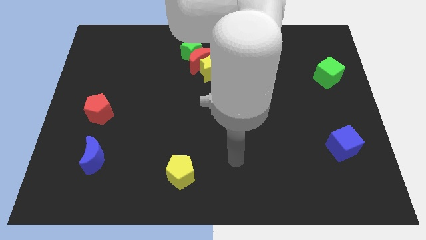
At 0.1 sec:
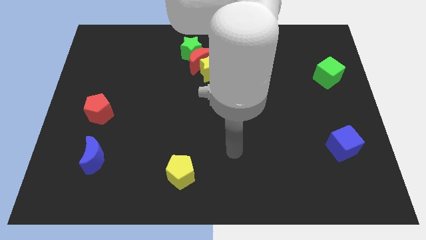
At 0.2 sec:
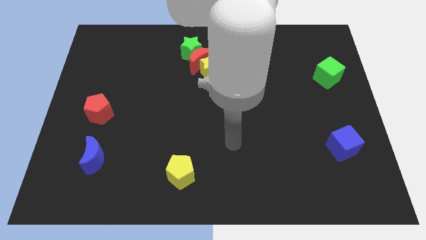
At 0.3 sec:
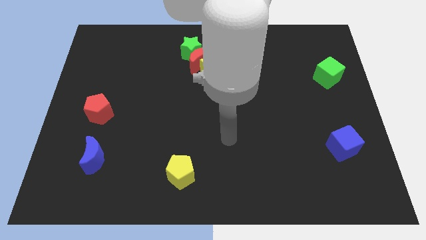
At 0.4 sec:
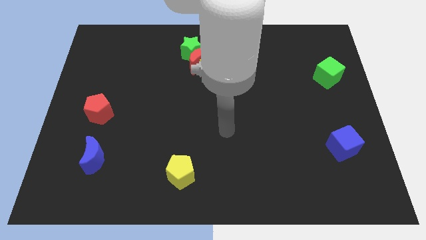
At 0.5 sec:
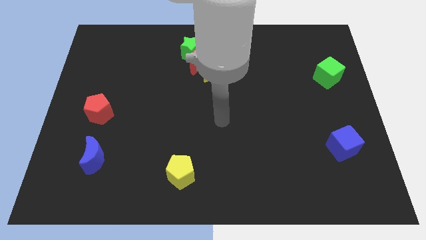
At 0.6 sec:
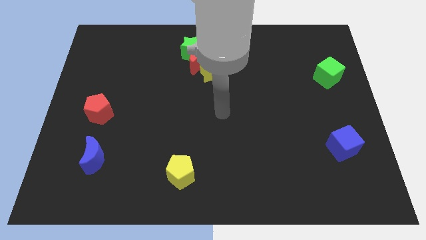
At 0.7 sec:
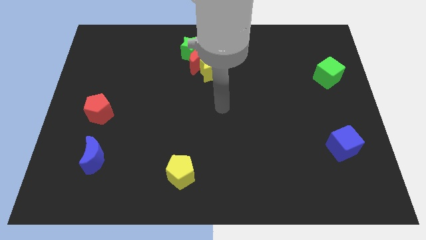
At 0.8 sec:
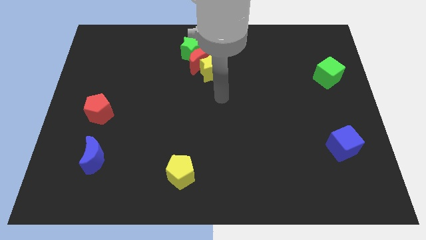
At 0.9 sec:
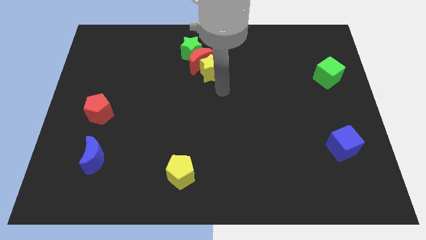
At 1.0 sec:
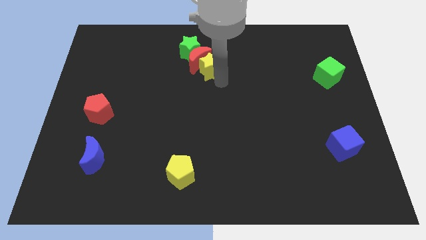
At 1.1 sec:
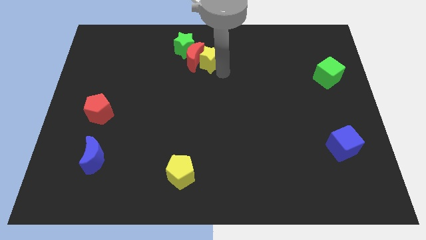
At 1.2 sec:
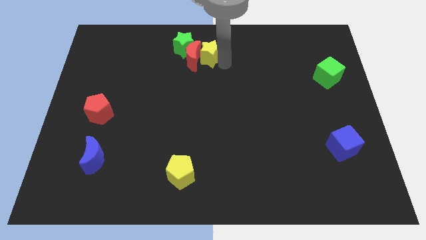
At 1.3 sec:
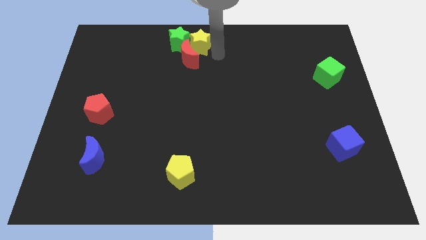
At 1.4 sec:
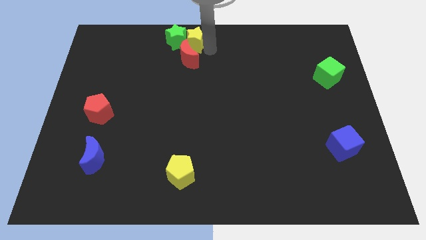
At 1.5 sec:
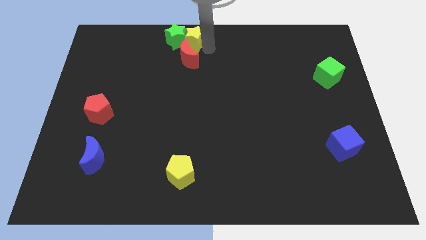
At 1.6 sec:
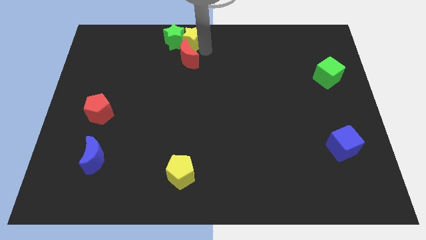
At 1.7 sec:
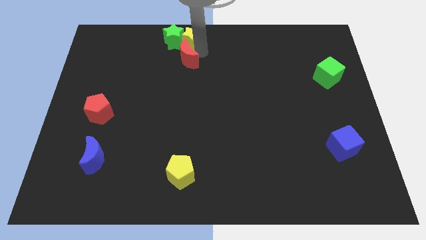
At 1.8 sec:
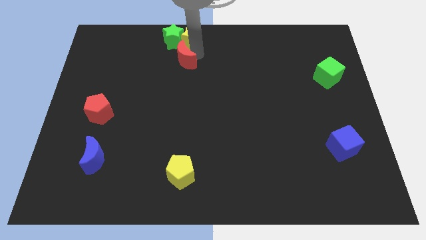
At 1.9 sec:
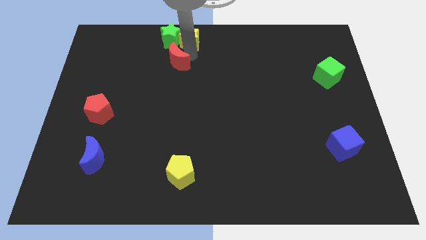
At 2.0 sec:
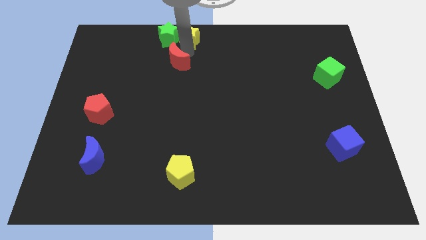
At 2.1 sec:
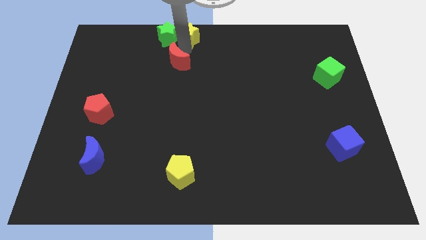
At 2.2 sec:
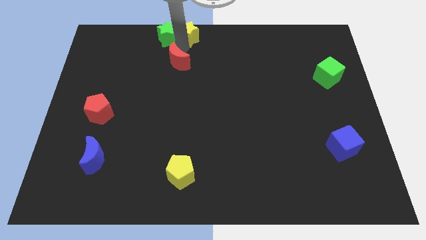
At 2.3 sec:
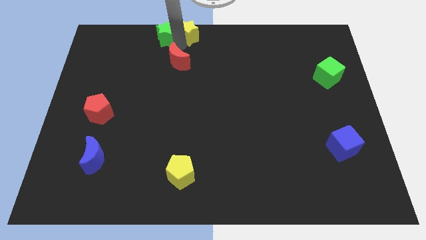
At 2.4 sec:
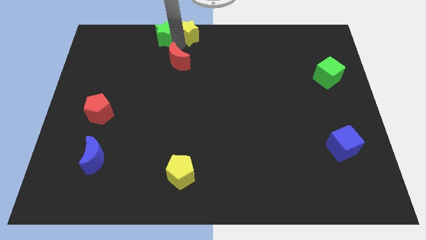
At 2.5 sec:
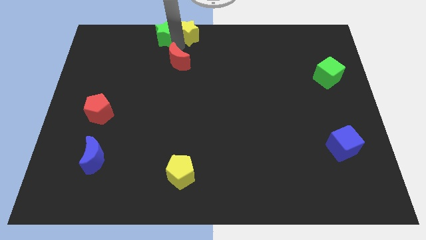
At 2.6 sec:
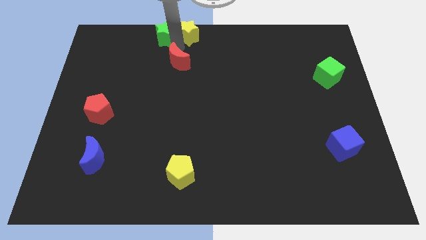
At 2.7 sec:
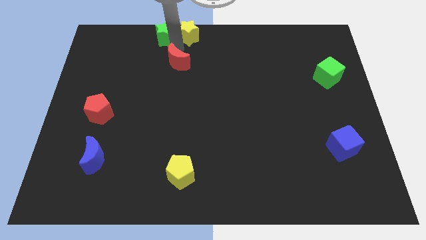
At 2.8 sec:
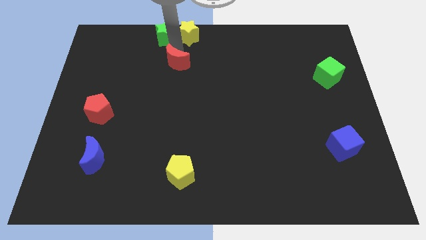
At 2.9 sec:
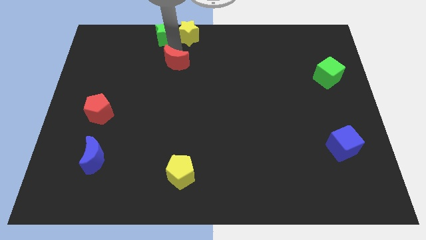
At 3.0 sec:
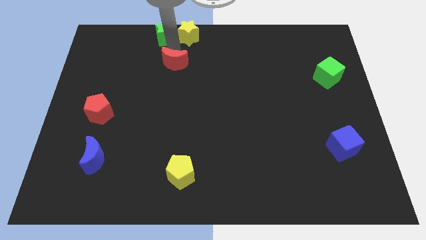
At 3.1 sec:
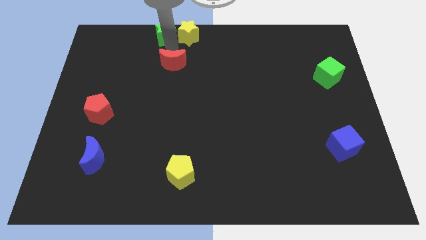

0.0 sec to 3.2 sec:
pull the red moon apart from the green star and yellow star

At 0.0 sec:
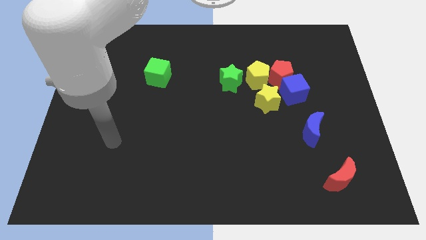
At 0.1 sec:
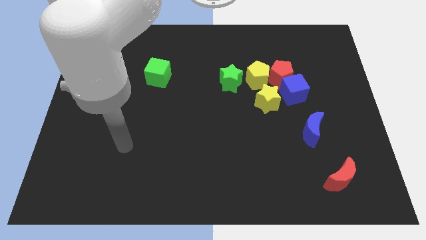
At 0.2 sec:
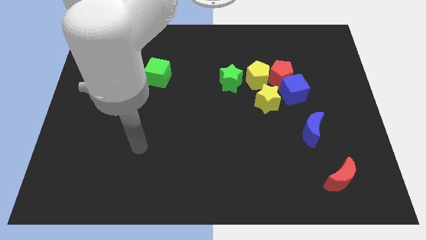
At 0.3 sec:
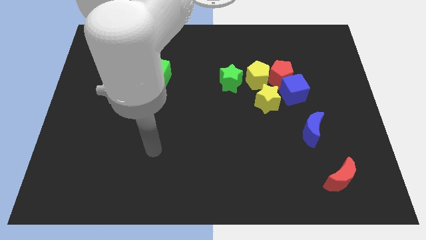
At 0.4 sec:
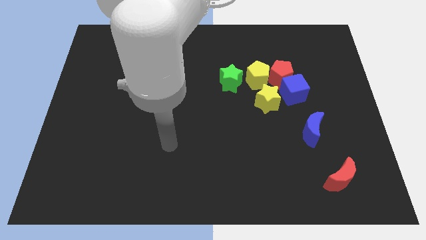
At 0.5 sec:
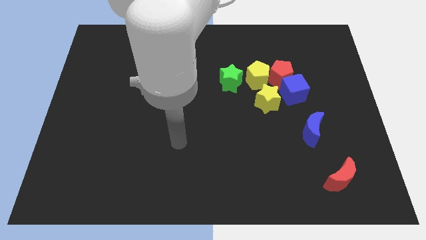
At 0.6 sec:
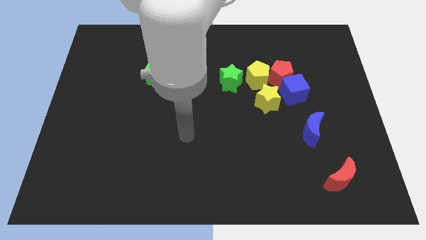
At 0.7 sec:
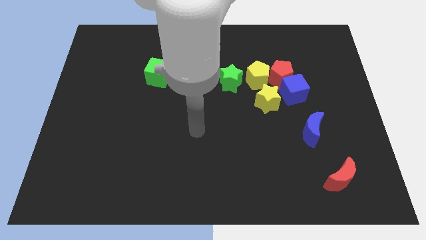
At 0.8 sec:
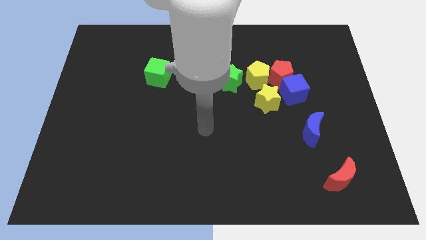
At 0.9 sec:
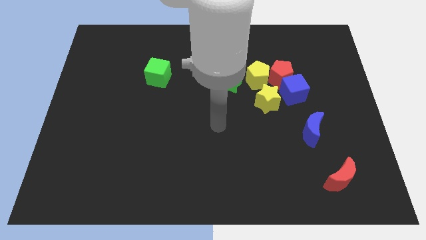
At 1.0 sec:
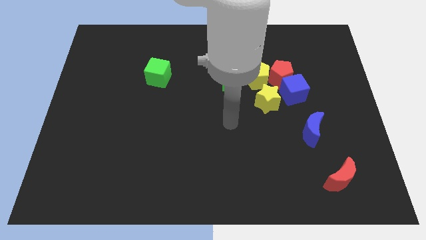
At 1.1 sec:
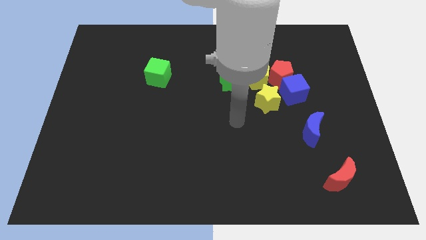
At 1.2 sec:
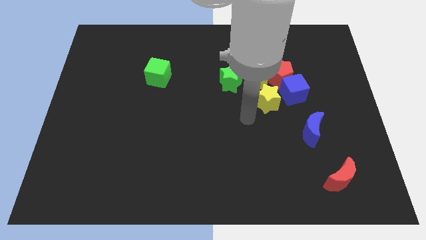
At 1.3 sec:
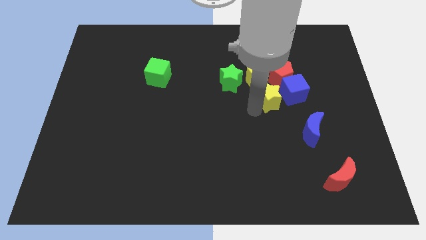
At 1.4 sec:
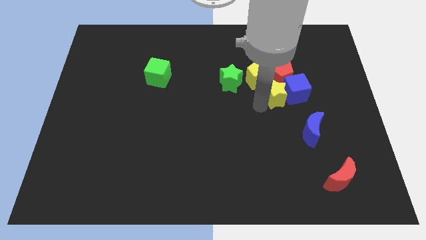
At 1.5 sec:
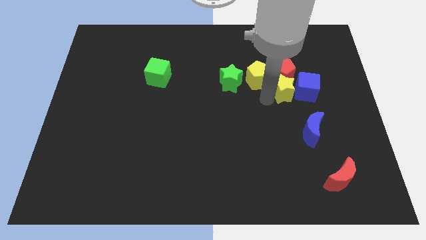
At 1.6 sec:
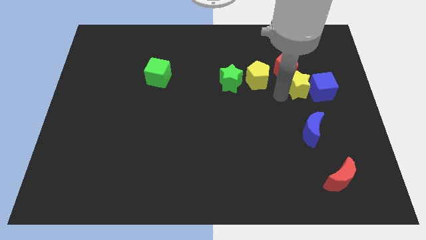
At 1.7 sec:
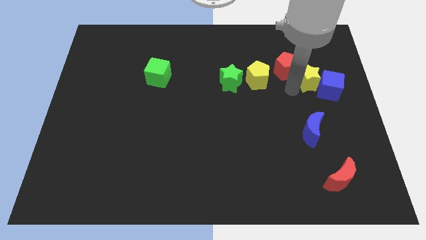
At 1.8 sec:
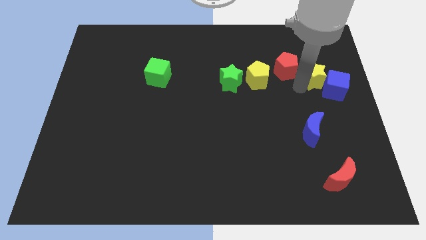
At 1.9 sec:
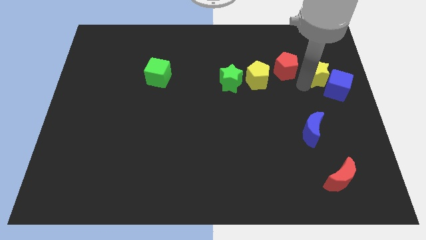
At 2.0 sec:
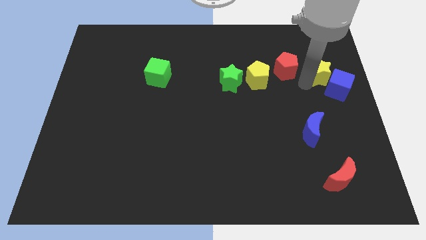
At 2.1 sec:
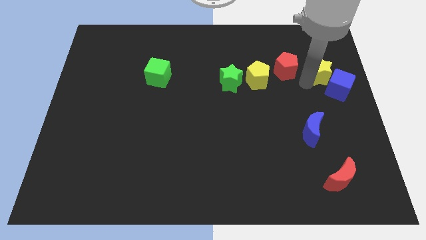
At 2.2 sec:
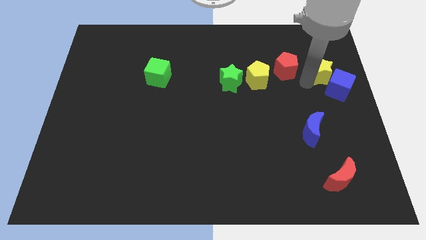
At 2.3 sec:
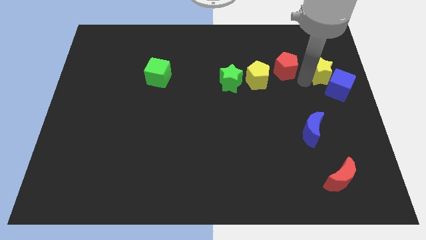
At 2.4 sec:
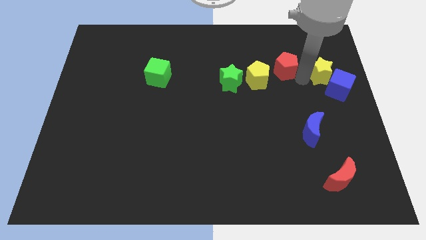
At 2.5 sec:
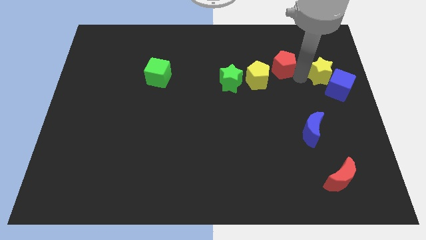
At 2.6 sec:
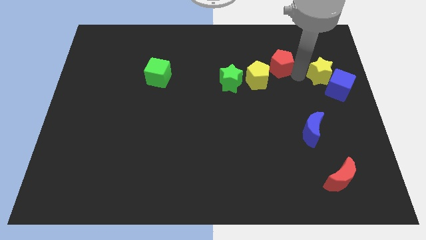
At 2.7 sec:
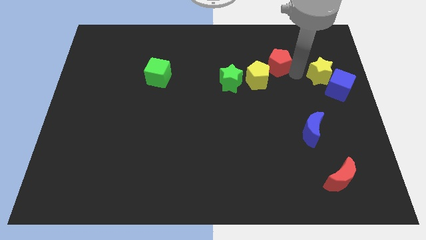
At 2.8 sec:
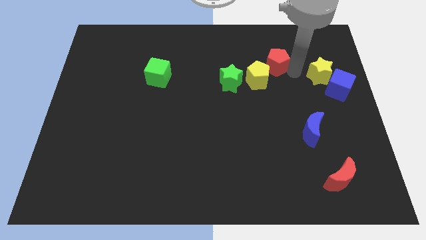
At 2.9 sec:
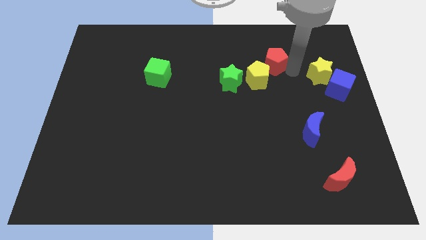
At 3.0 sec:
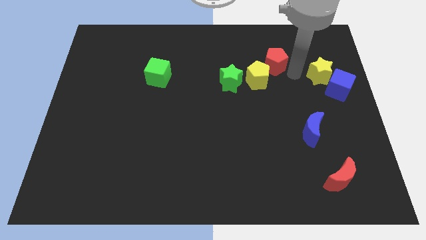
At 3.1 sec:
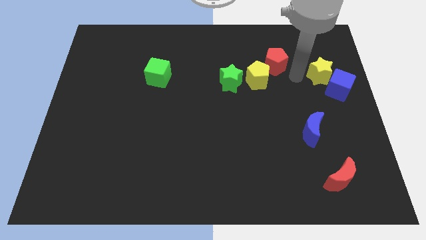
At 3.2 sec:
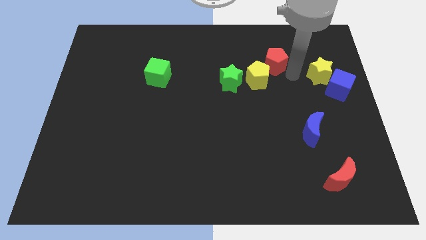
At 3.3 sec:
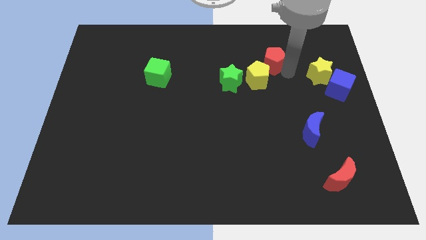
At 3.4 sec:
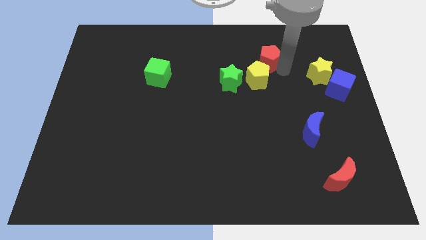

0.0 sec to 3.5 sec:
pull the red pentagon apart from the group

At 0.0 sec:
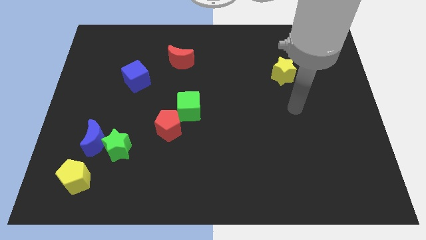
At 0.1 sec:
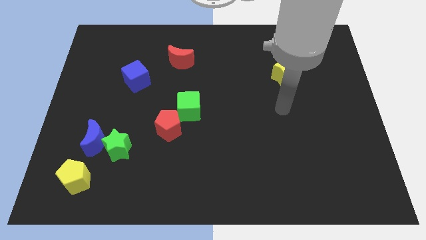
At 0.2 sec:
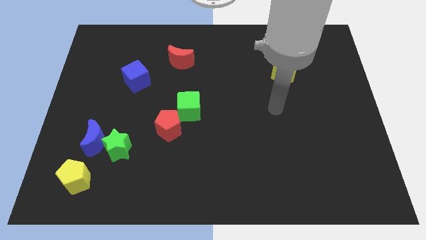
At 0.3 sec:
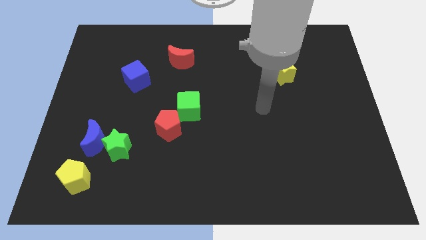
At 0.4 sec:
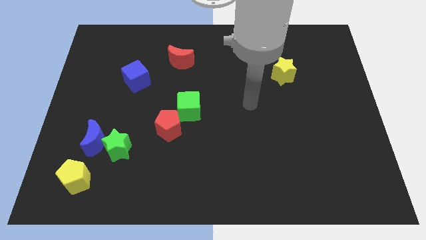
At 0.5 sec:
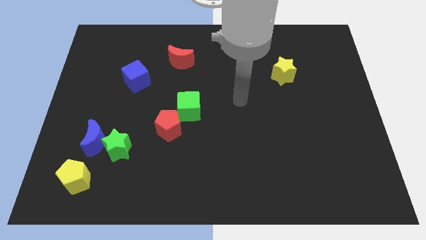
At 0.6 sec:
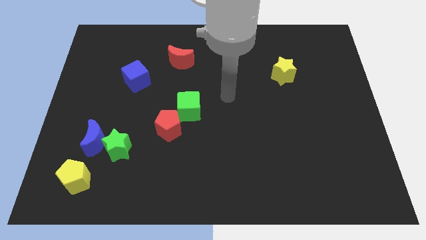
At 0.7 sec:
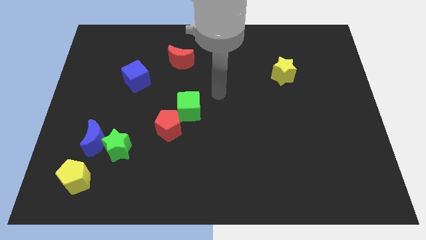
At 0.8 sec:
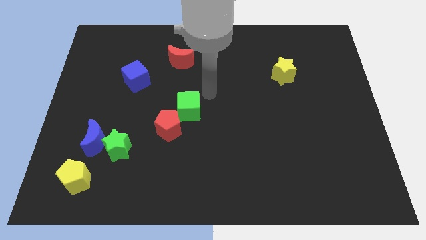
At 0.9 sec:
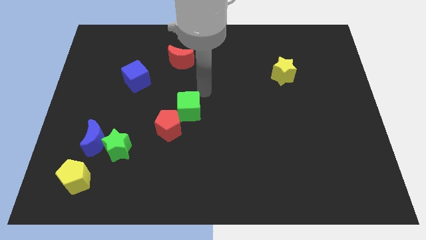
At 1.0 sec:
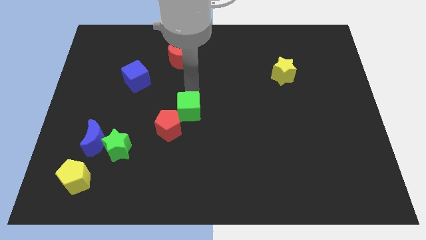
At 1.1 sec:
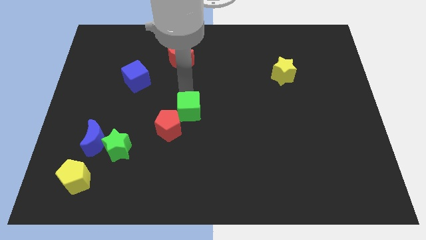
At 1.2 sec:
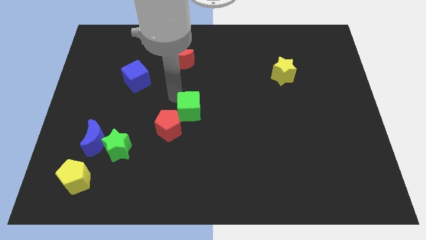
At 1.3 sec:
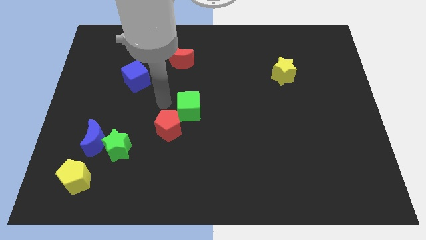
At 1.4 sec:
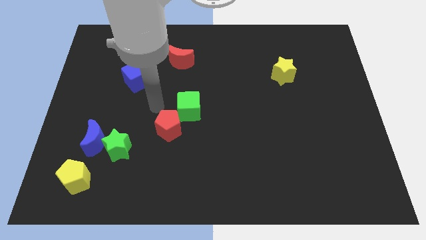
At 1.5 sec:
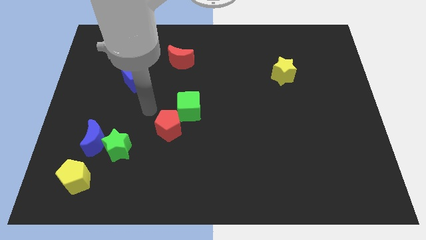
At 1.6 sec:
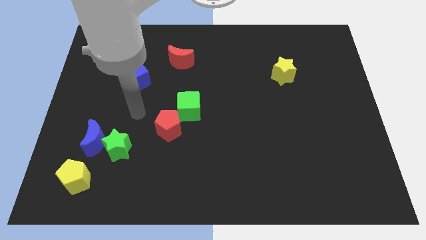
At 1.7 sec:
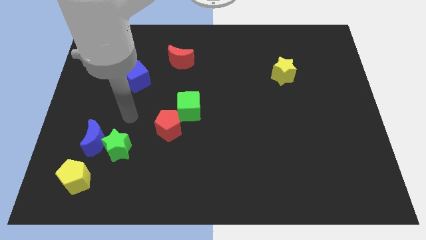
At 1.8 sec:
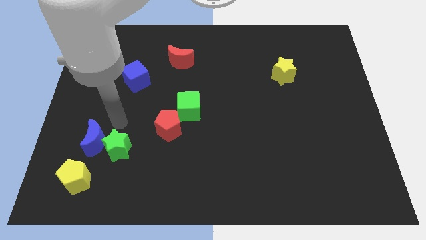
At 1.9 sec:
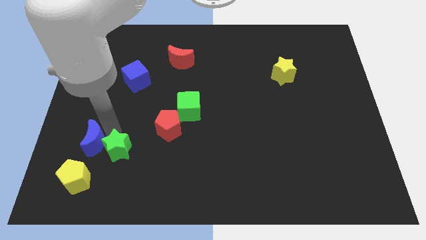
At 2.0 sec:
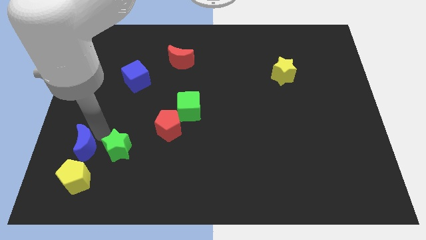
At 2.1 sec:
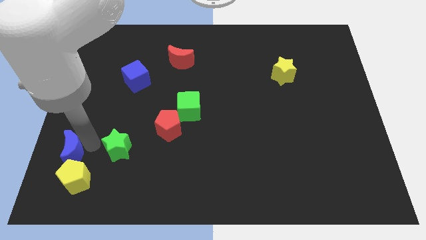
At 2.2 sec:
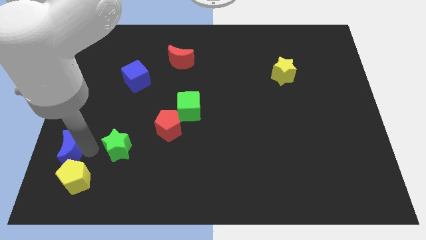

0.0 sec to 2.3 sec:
move the green star away from the blue moon

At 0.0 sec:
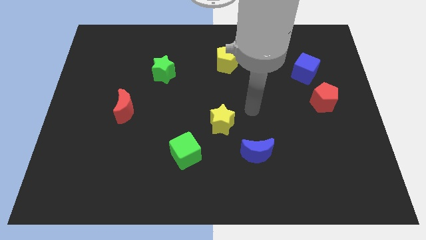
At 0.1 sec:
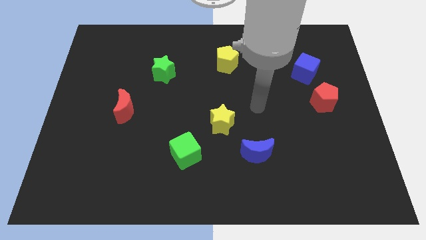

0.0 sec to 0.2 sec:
separate the red pentagon from the blue cube
